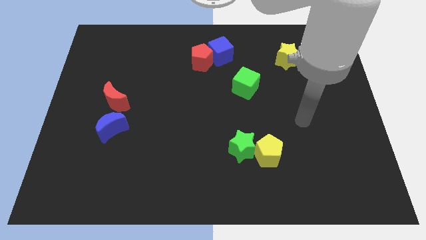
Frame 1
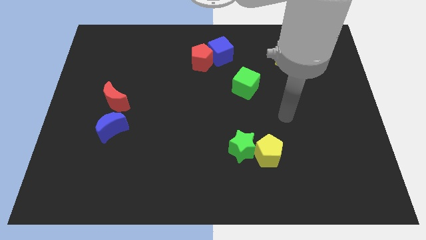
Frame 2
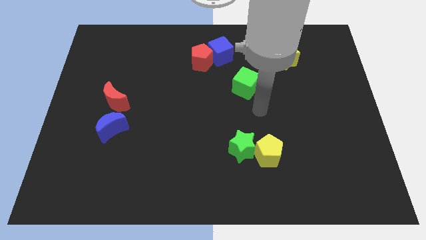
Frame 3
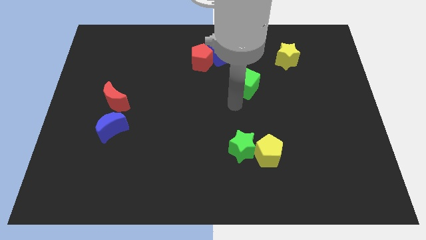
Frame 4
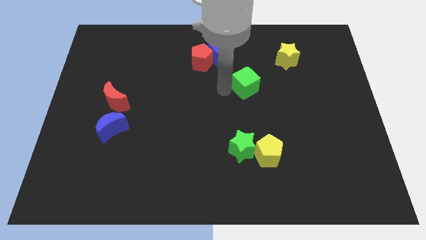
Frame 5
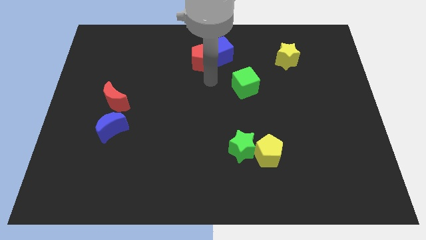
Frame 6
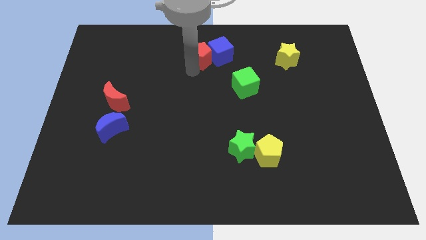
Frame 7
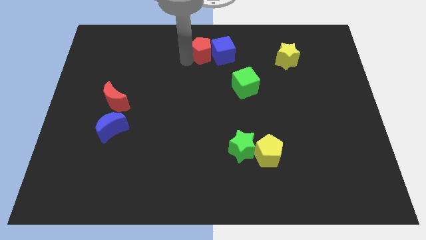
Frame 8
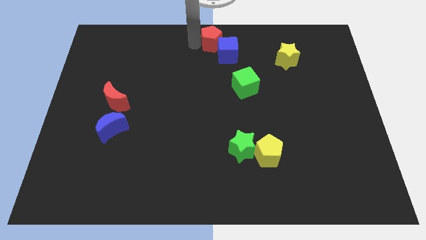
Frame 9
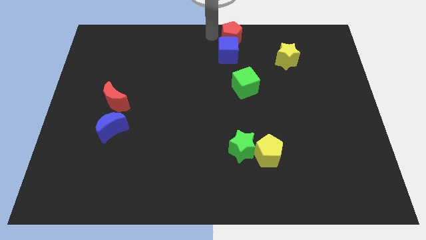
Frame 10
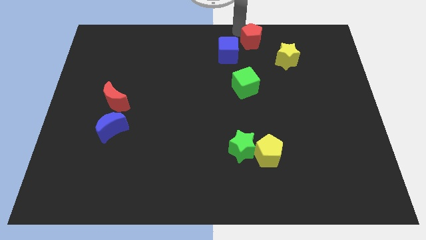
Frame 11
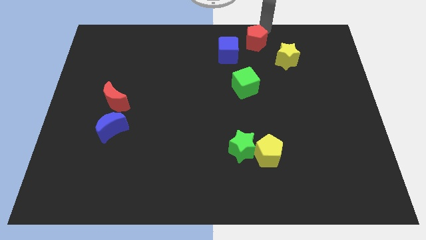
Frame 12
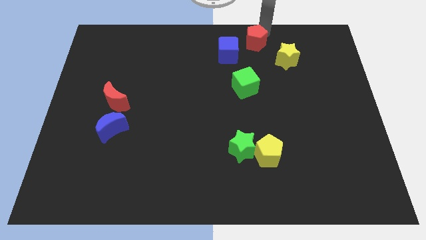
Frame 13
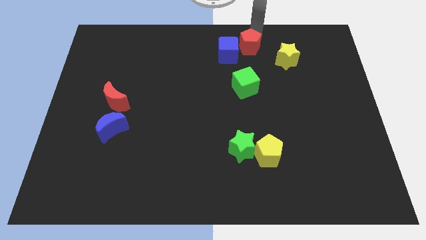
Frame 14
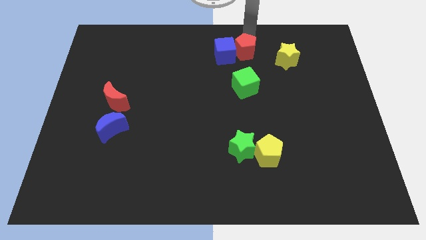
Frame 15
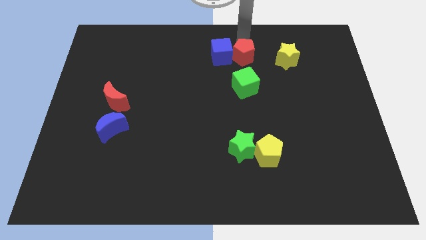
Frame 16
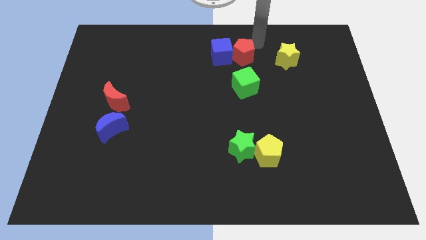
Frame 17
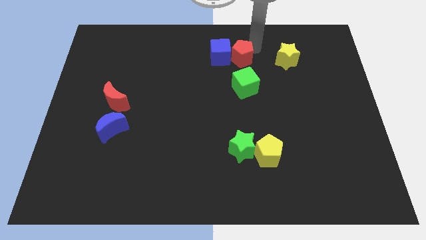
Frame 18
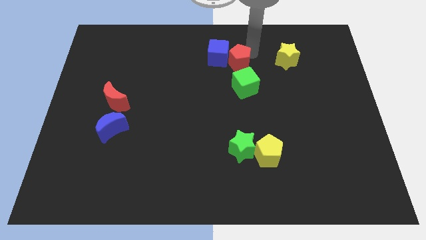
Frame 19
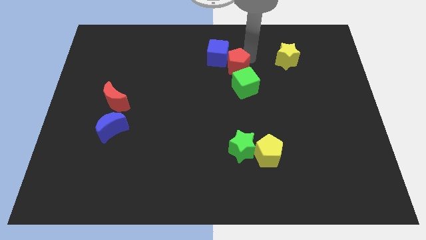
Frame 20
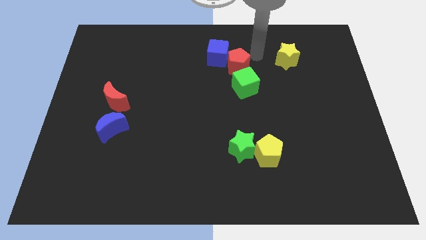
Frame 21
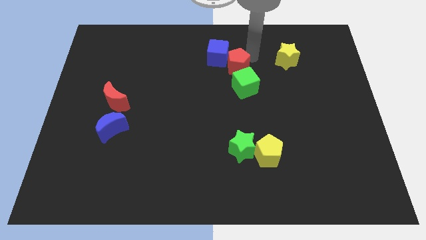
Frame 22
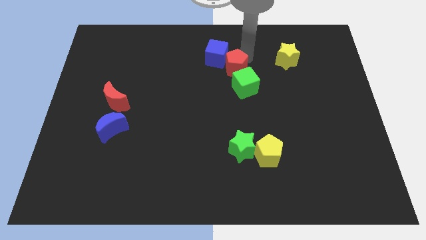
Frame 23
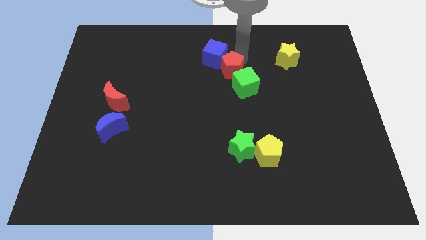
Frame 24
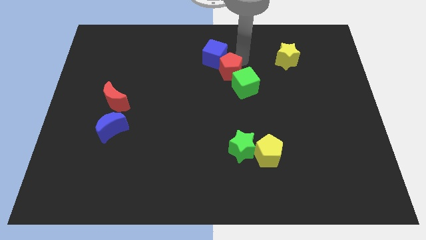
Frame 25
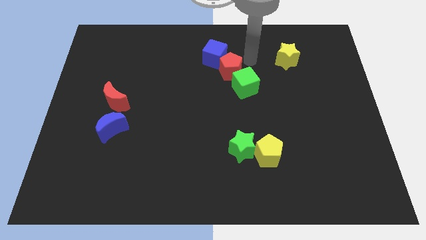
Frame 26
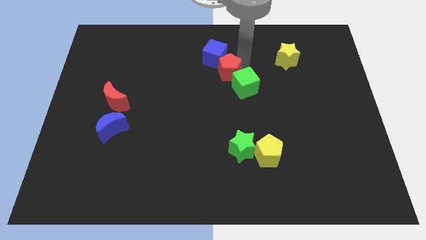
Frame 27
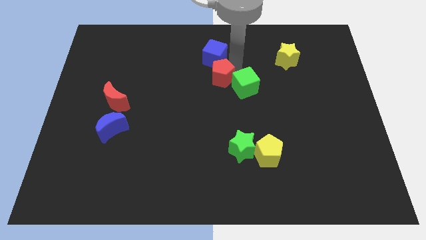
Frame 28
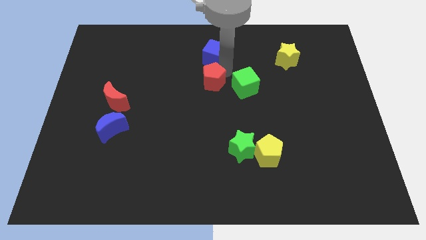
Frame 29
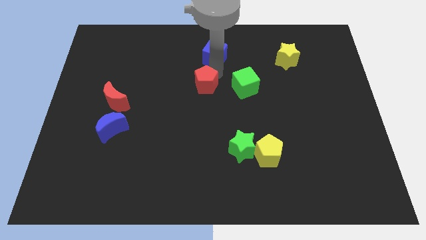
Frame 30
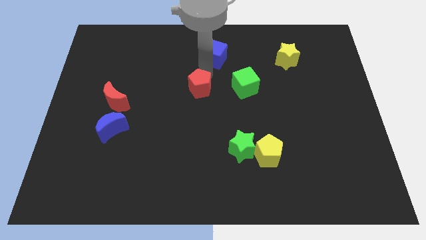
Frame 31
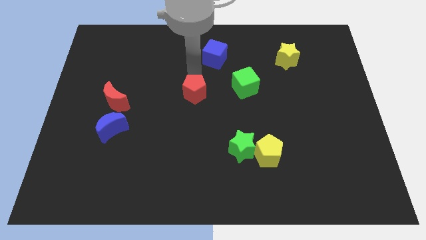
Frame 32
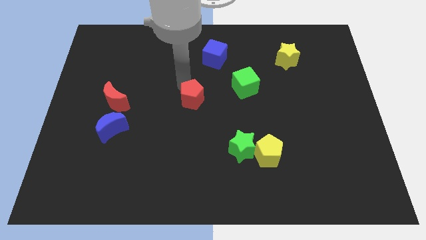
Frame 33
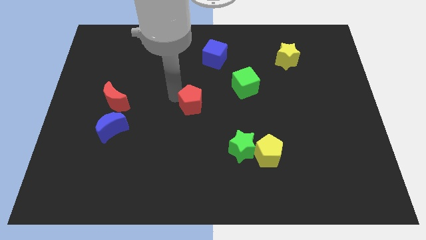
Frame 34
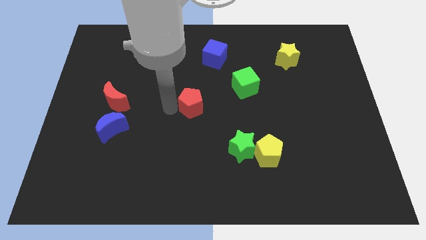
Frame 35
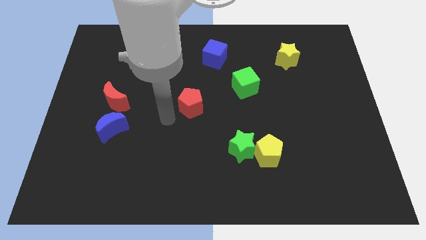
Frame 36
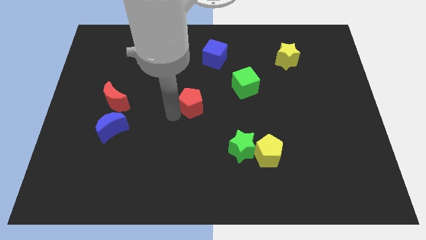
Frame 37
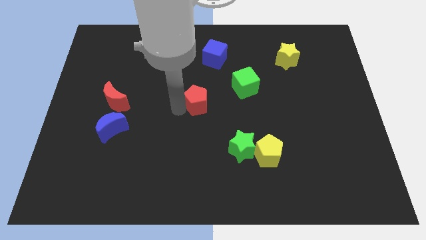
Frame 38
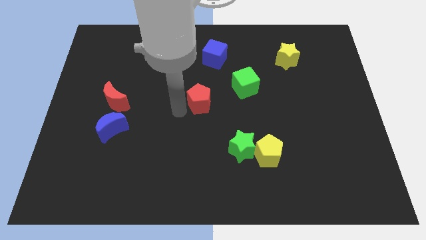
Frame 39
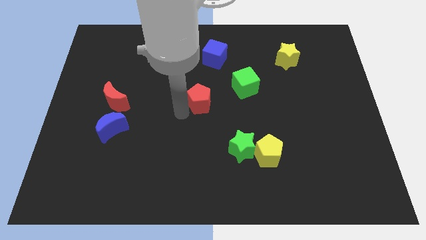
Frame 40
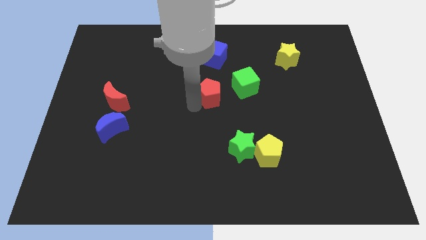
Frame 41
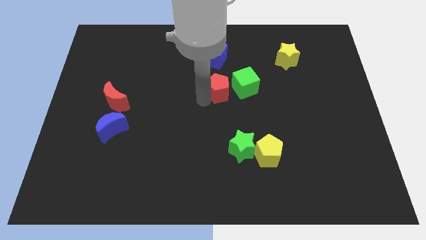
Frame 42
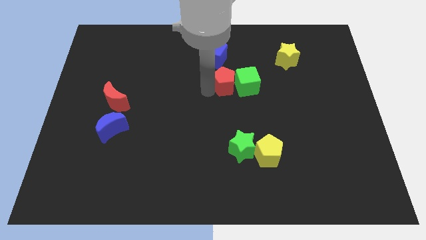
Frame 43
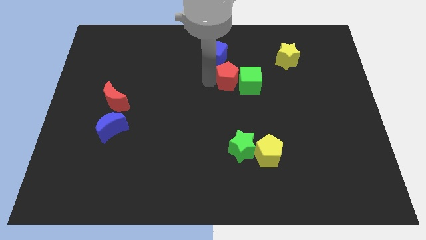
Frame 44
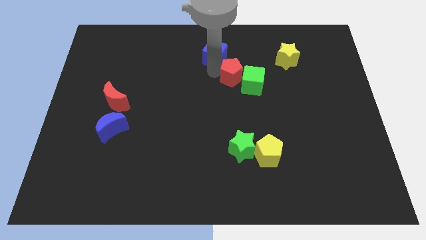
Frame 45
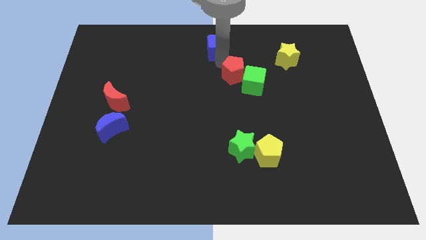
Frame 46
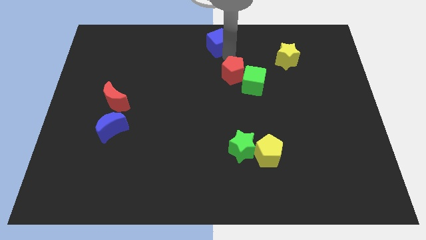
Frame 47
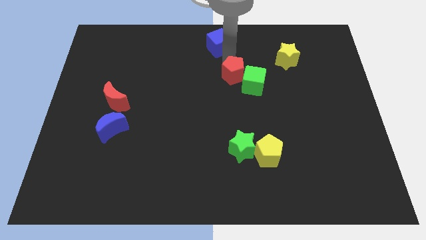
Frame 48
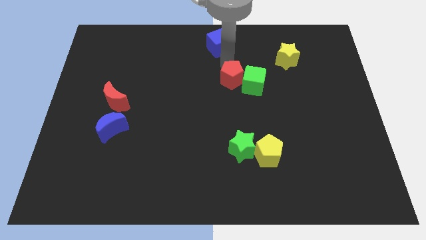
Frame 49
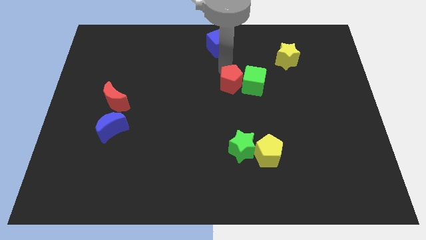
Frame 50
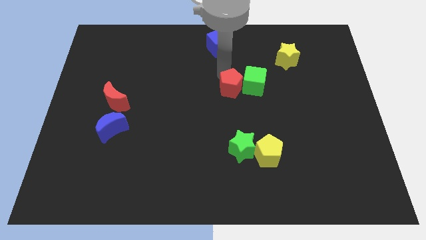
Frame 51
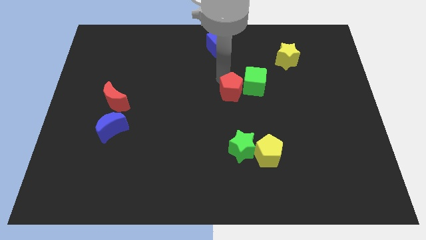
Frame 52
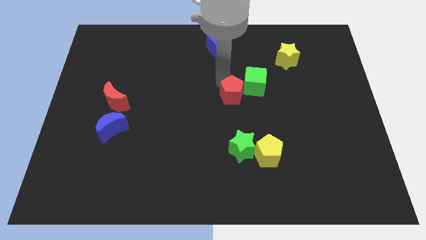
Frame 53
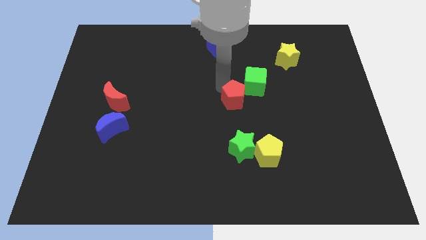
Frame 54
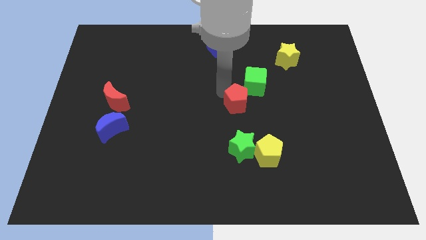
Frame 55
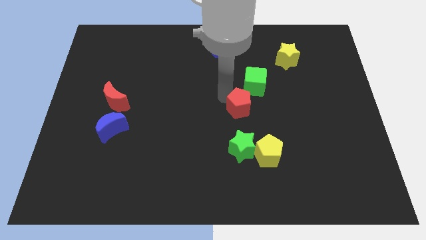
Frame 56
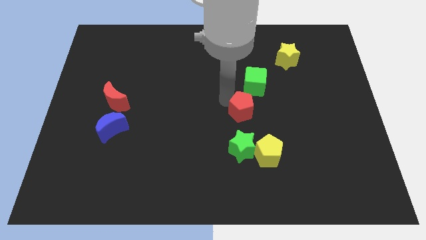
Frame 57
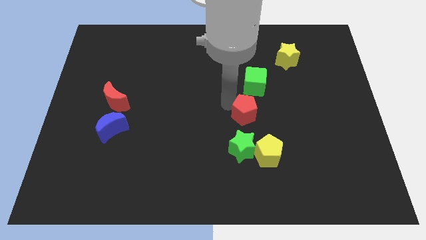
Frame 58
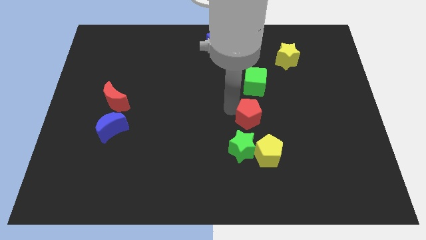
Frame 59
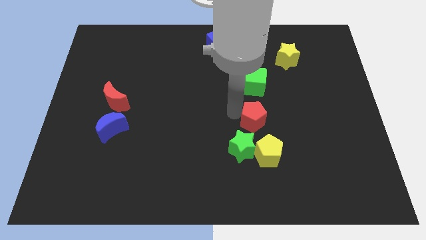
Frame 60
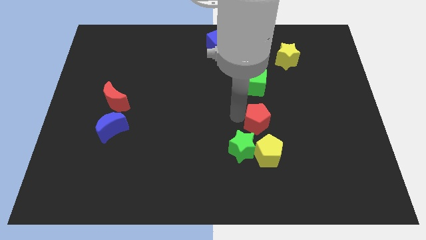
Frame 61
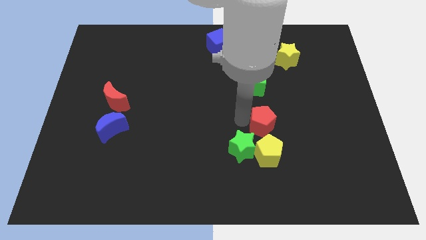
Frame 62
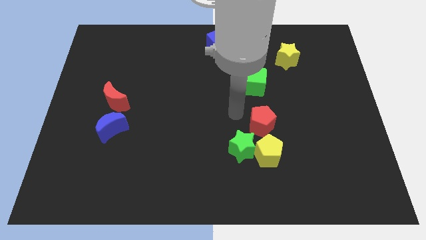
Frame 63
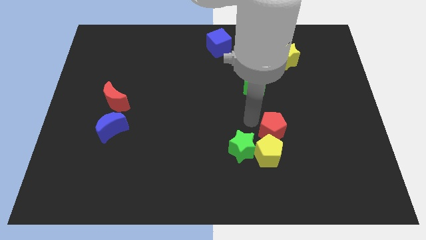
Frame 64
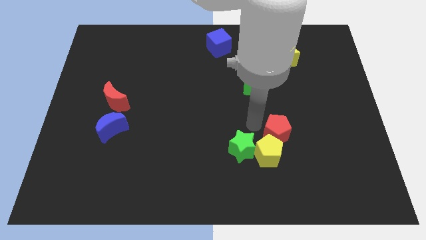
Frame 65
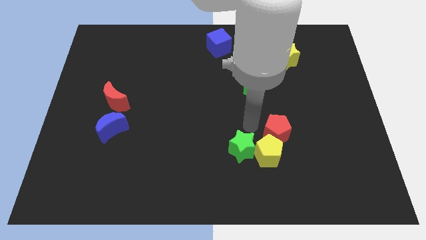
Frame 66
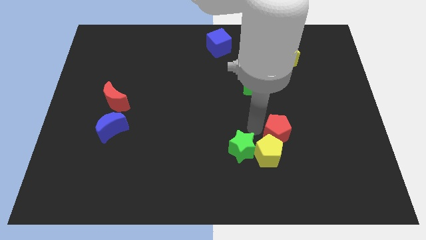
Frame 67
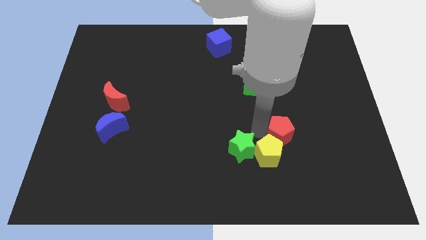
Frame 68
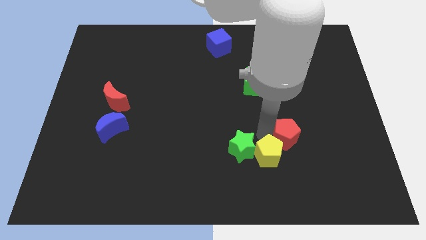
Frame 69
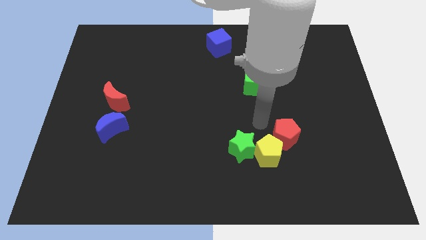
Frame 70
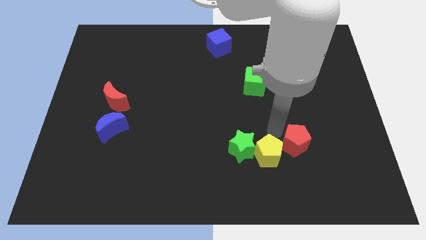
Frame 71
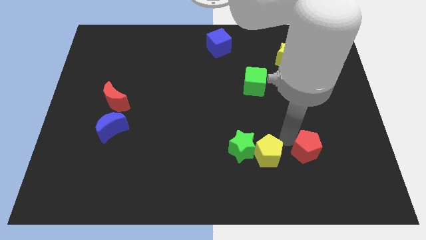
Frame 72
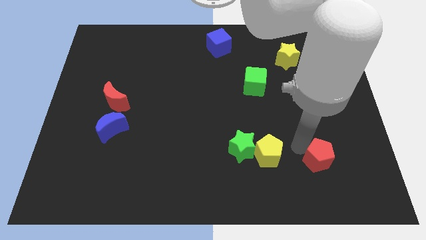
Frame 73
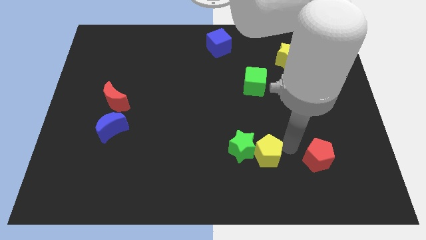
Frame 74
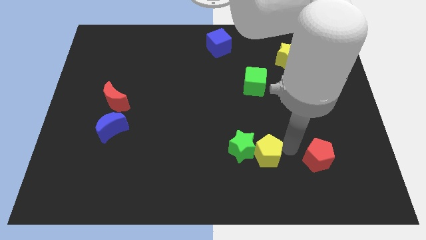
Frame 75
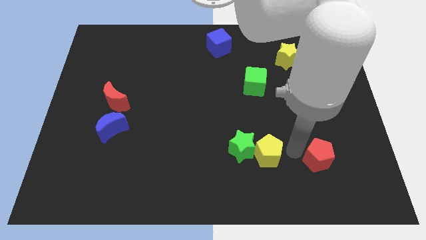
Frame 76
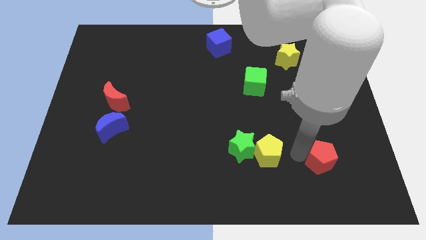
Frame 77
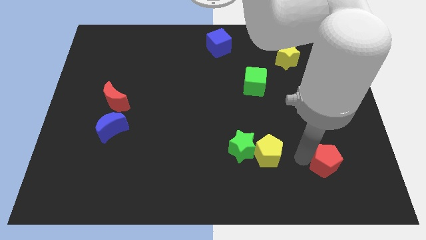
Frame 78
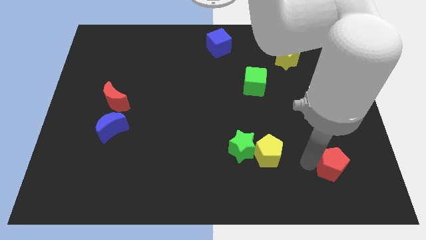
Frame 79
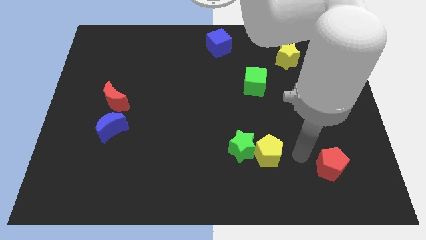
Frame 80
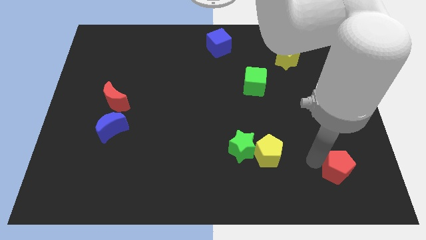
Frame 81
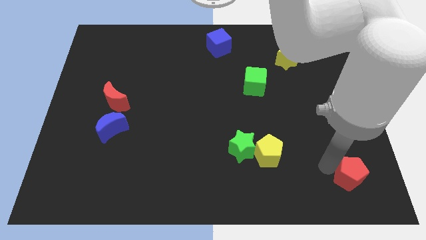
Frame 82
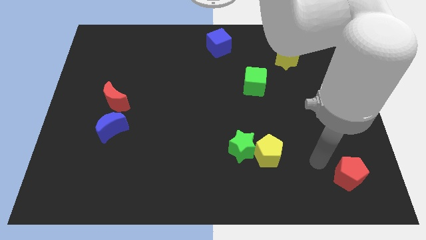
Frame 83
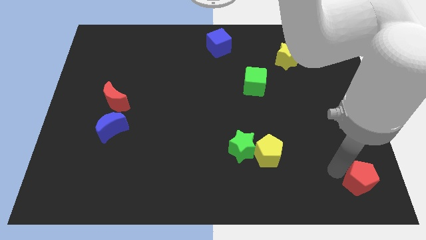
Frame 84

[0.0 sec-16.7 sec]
push the red pentagon to the bottom right of the board
